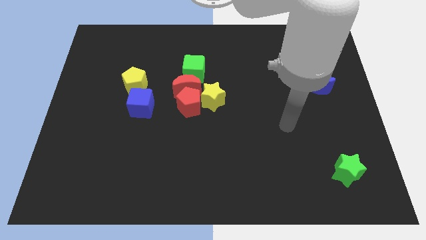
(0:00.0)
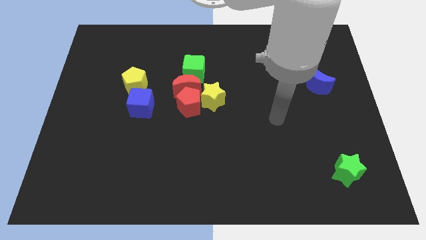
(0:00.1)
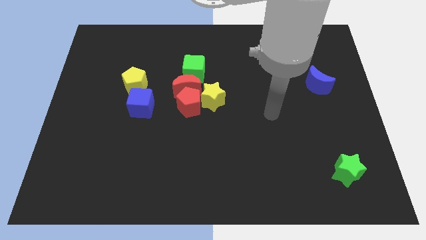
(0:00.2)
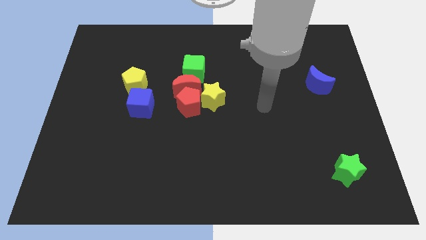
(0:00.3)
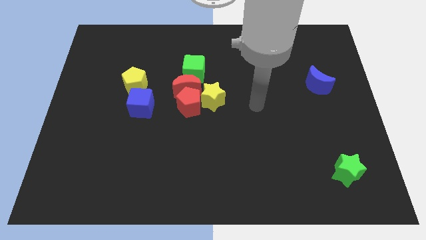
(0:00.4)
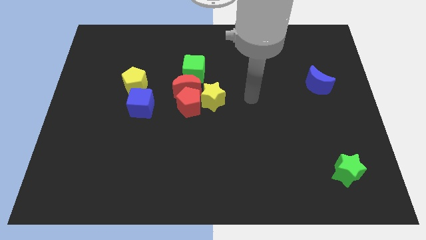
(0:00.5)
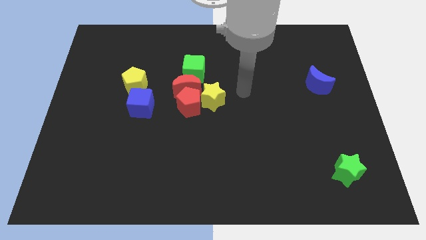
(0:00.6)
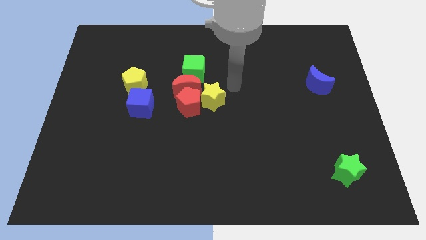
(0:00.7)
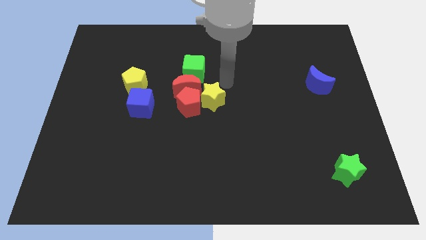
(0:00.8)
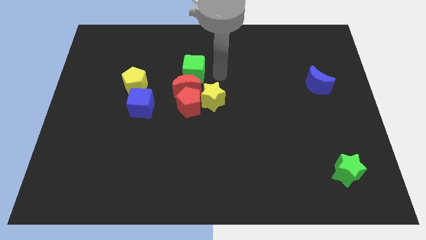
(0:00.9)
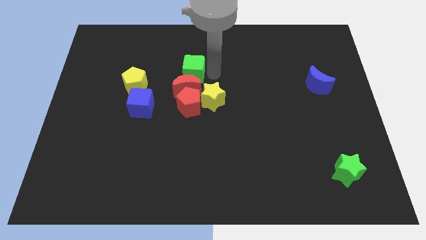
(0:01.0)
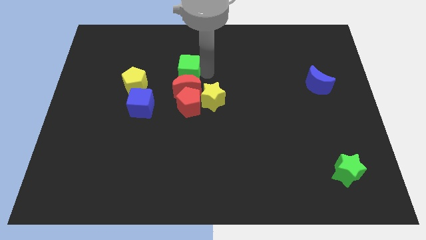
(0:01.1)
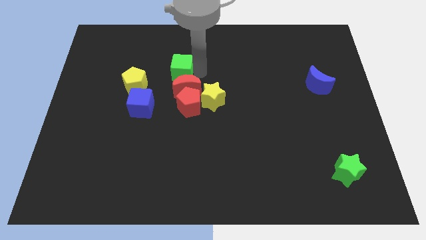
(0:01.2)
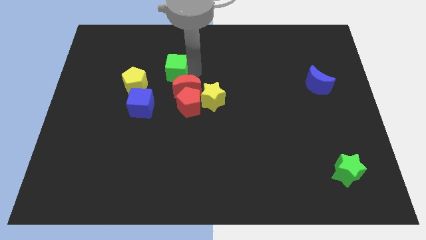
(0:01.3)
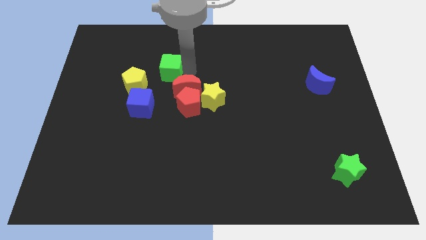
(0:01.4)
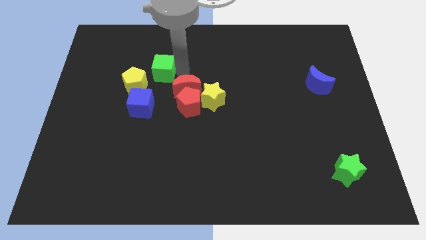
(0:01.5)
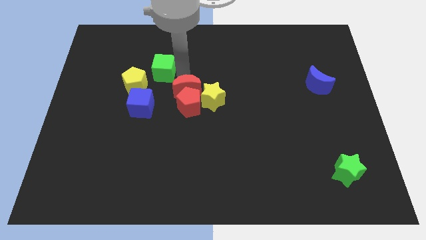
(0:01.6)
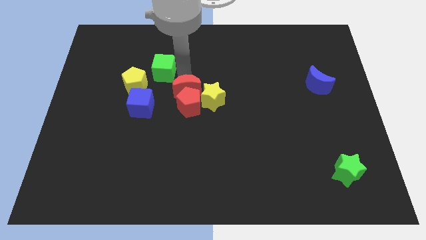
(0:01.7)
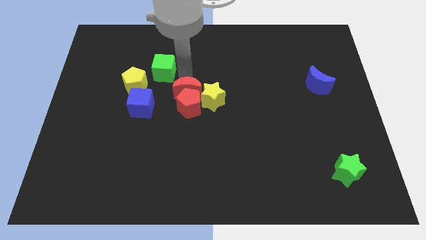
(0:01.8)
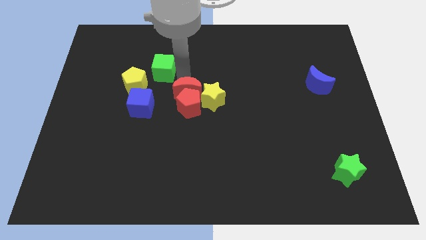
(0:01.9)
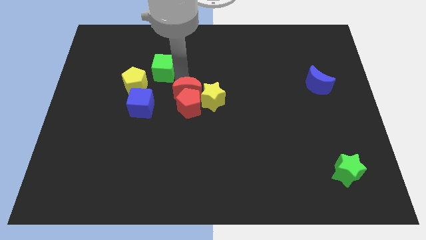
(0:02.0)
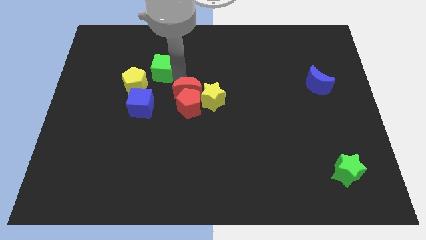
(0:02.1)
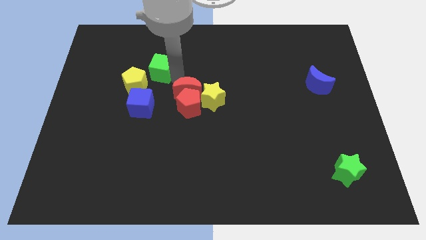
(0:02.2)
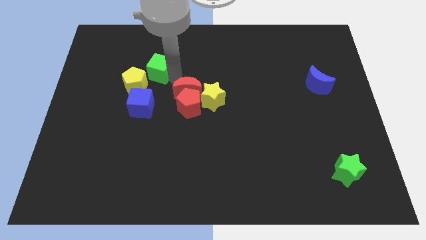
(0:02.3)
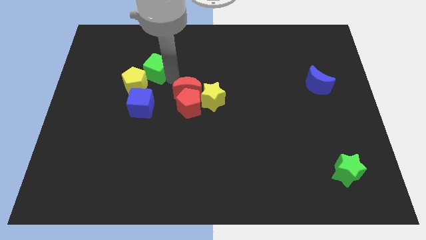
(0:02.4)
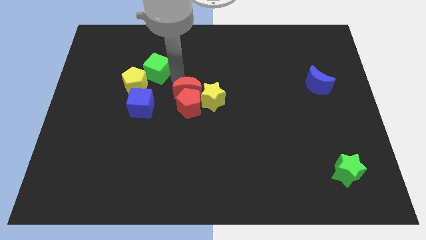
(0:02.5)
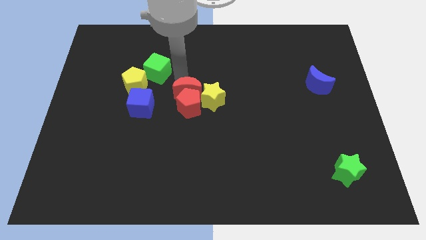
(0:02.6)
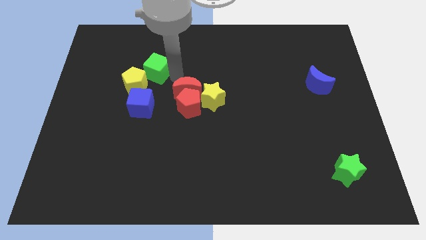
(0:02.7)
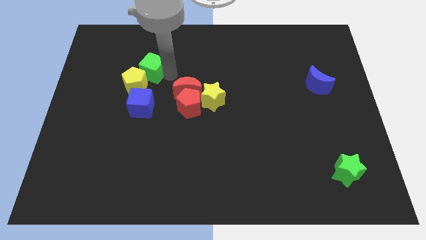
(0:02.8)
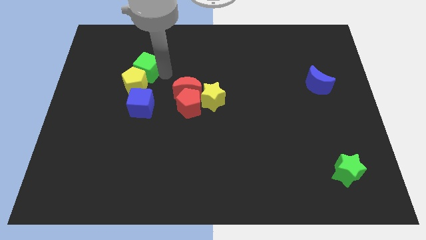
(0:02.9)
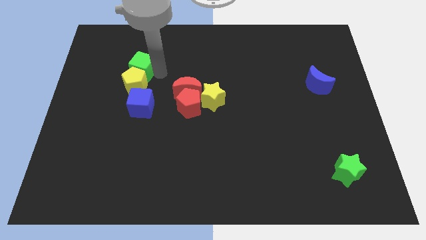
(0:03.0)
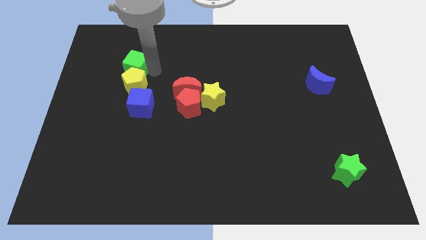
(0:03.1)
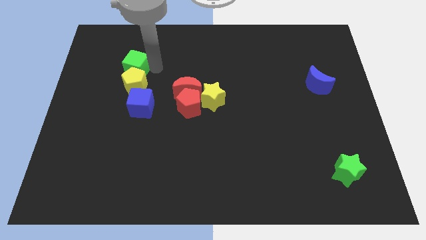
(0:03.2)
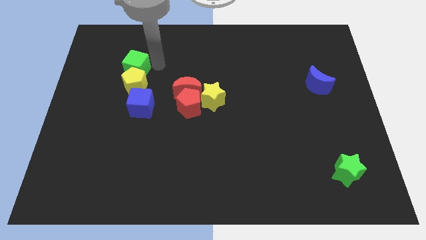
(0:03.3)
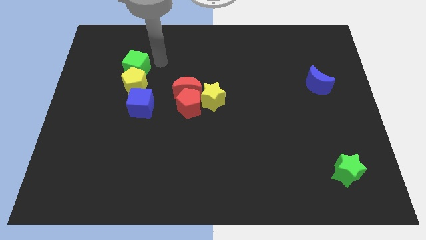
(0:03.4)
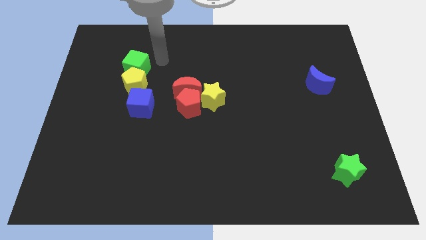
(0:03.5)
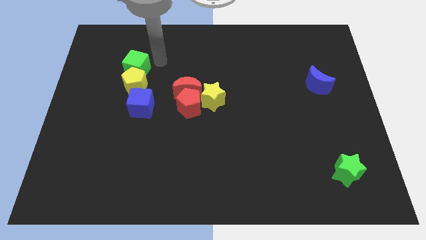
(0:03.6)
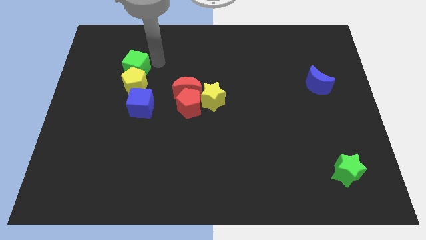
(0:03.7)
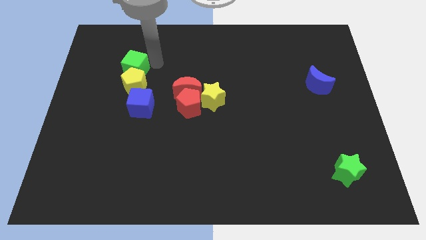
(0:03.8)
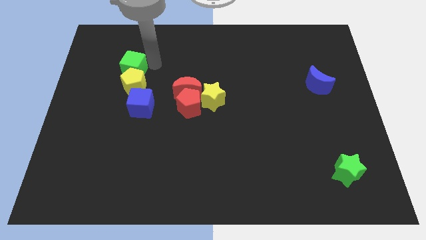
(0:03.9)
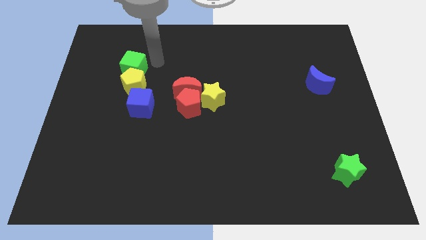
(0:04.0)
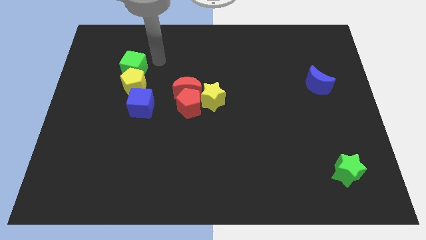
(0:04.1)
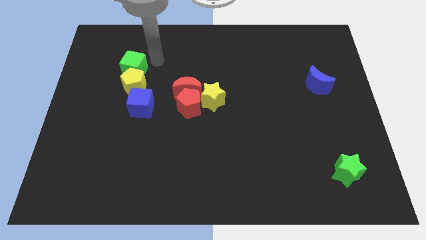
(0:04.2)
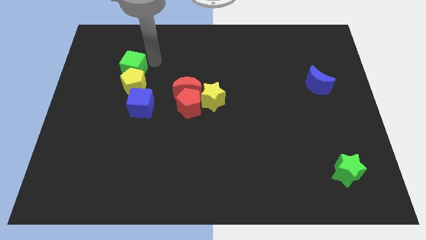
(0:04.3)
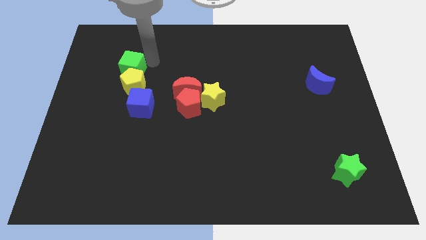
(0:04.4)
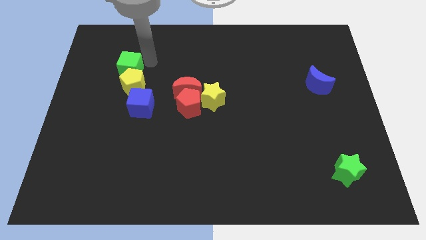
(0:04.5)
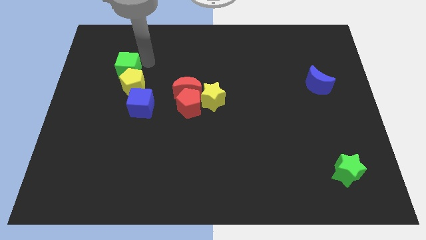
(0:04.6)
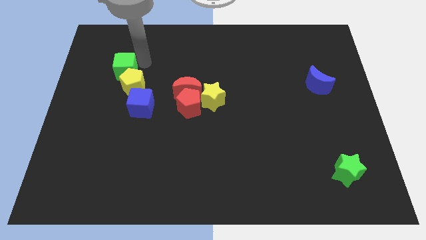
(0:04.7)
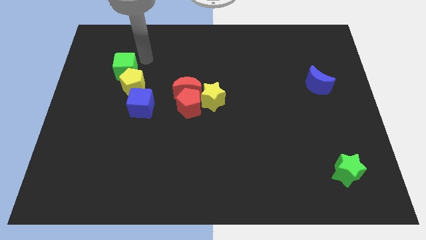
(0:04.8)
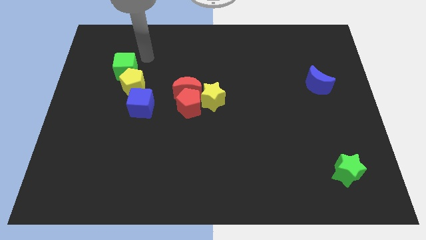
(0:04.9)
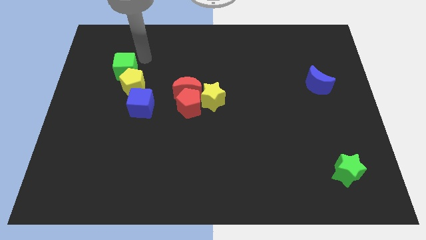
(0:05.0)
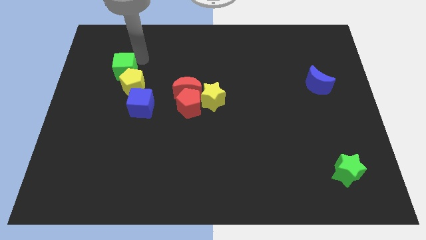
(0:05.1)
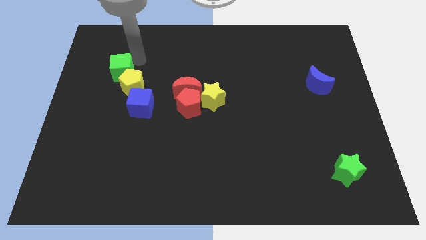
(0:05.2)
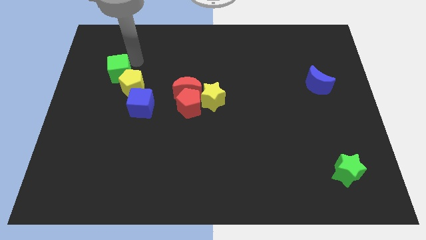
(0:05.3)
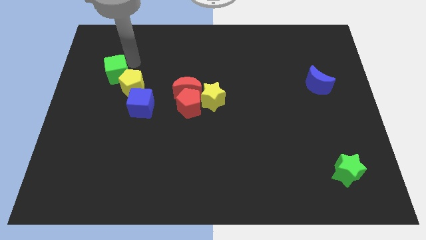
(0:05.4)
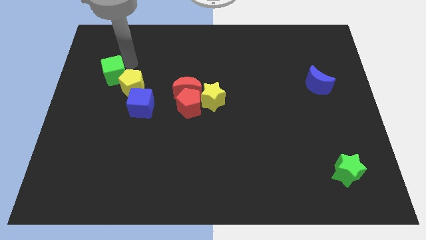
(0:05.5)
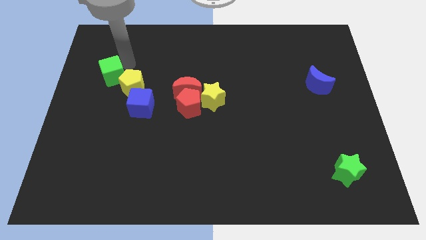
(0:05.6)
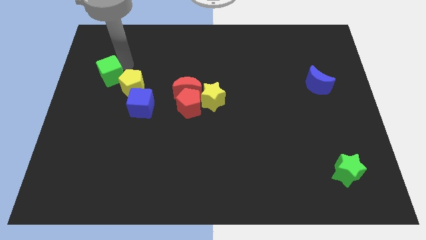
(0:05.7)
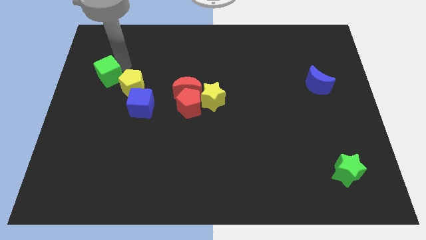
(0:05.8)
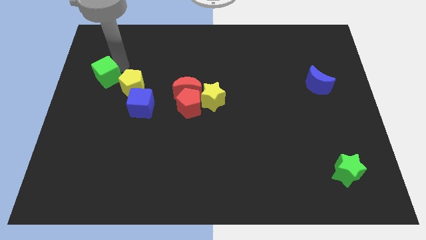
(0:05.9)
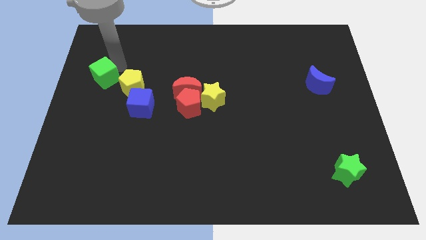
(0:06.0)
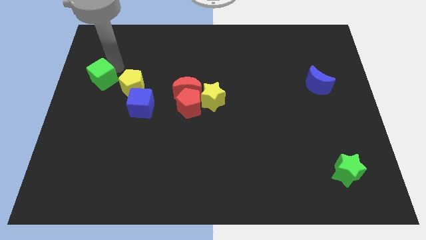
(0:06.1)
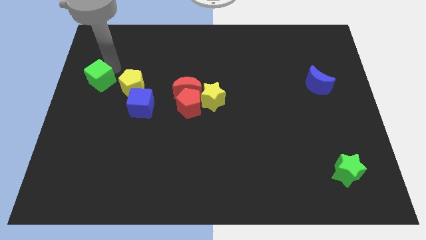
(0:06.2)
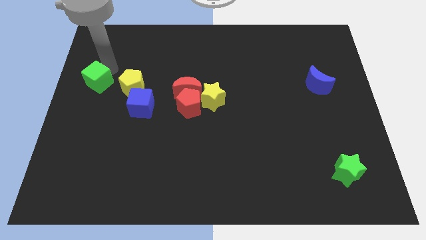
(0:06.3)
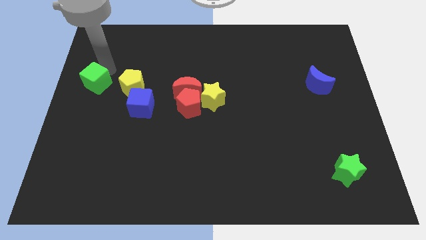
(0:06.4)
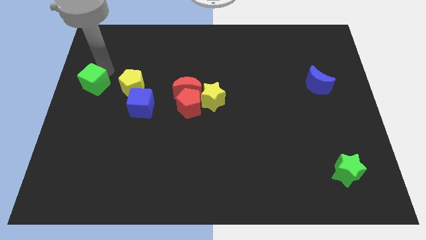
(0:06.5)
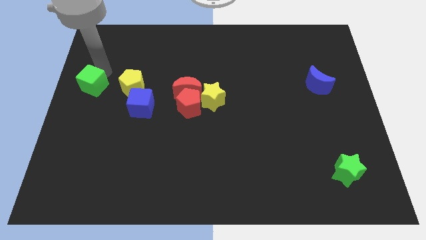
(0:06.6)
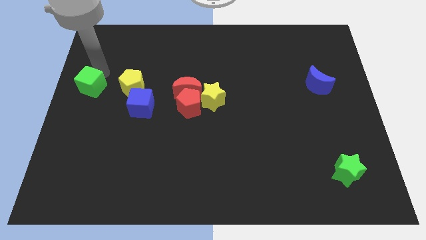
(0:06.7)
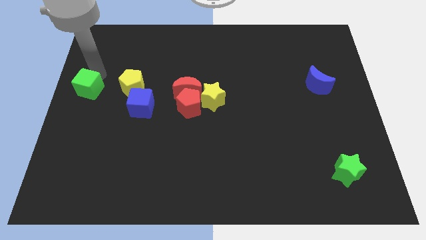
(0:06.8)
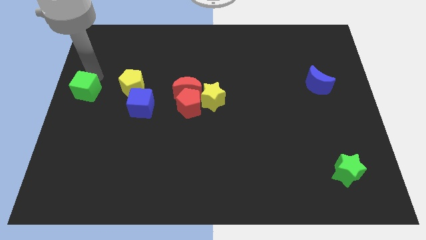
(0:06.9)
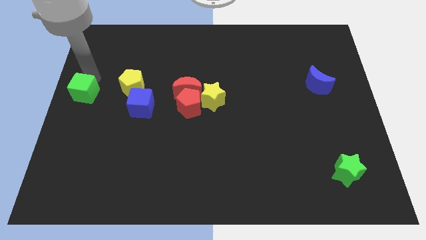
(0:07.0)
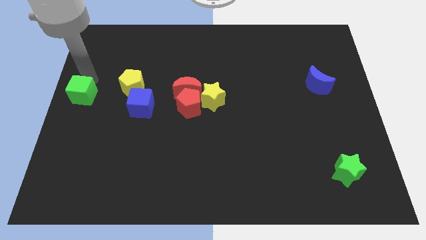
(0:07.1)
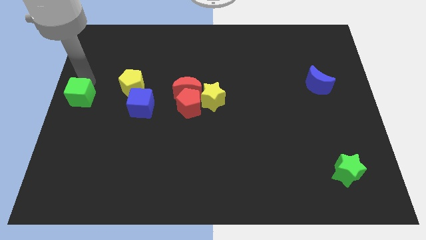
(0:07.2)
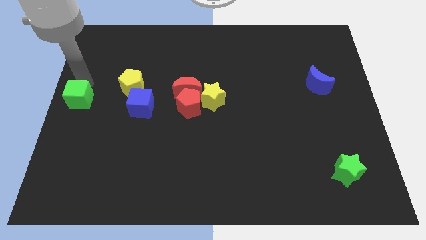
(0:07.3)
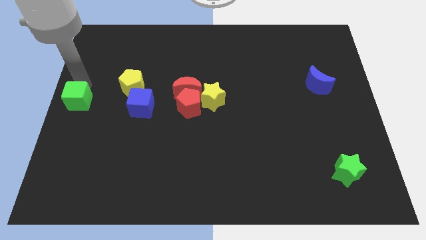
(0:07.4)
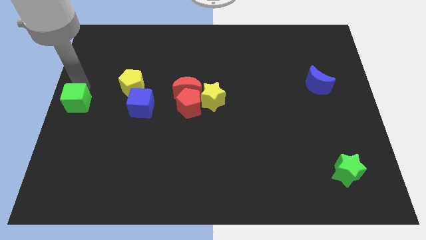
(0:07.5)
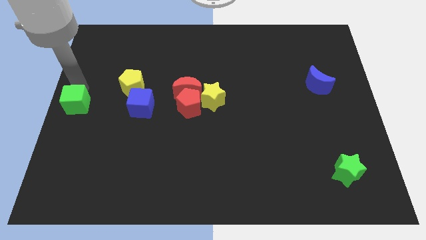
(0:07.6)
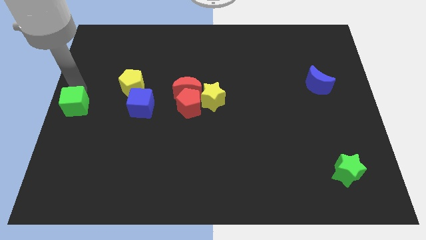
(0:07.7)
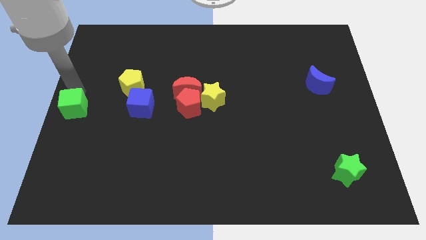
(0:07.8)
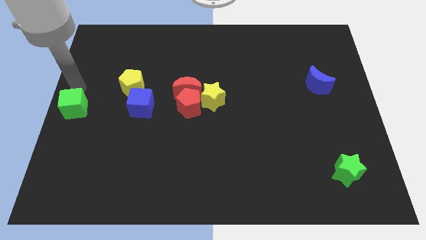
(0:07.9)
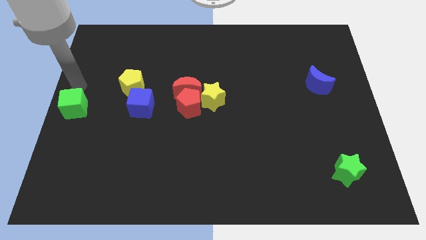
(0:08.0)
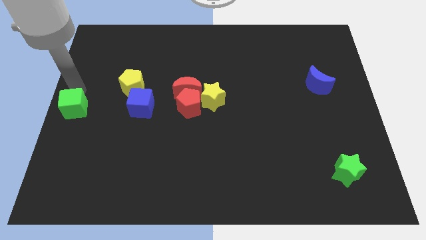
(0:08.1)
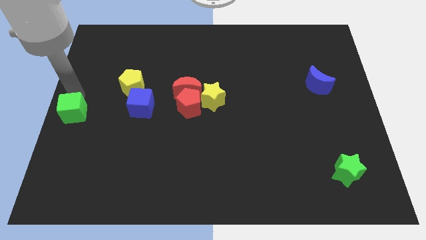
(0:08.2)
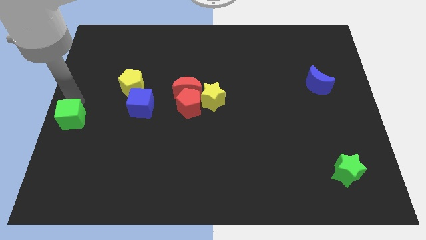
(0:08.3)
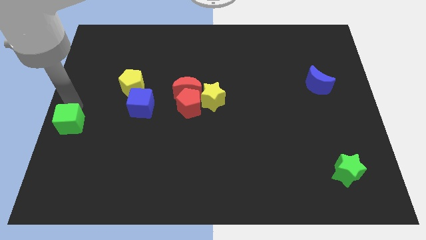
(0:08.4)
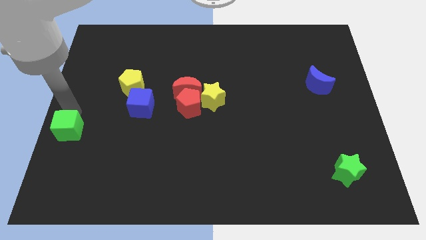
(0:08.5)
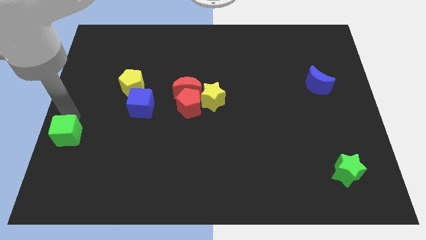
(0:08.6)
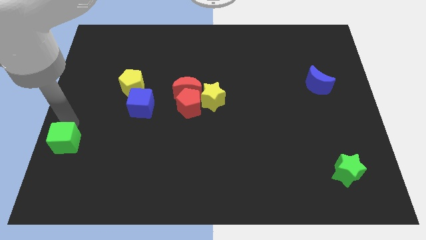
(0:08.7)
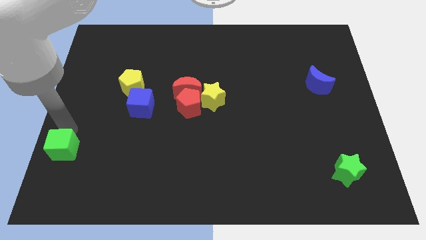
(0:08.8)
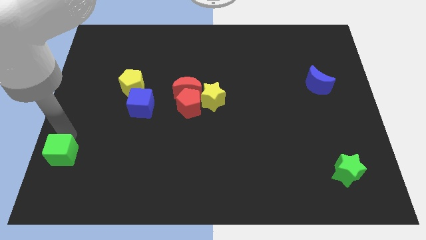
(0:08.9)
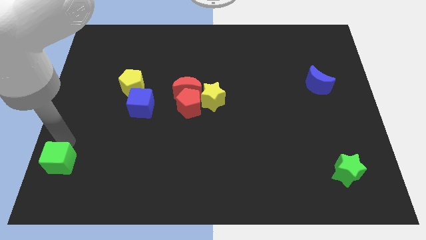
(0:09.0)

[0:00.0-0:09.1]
move the green cube to the bottom left of the board
